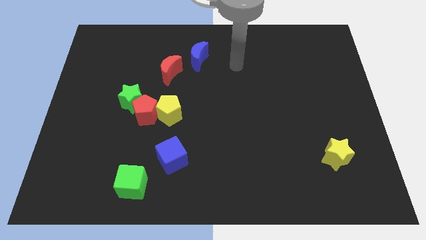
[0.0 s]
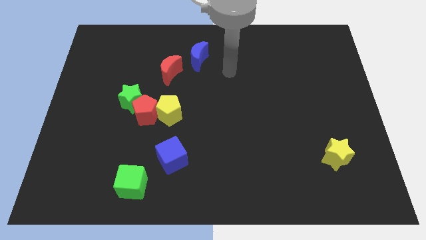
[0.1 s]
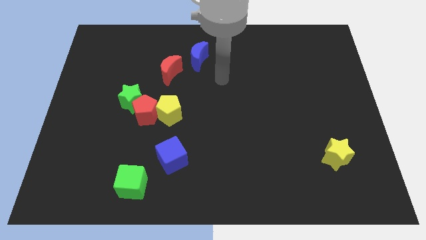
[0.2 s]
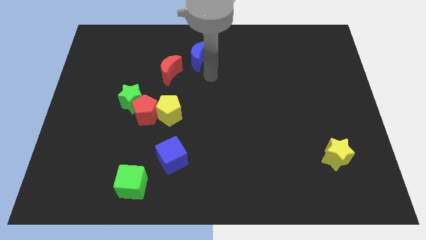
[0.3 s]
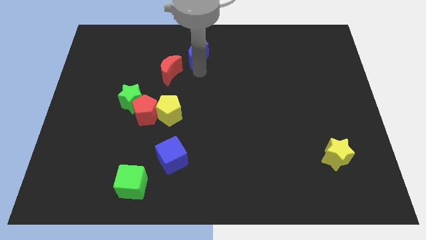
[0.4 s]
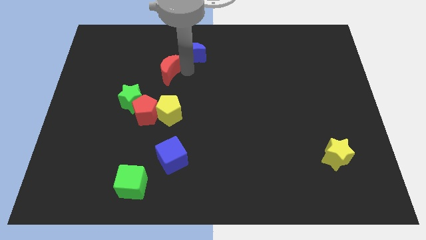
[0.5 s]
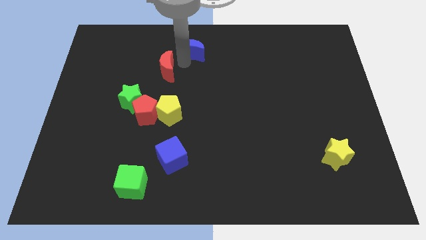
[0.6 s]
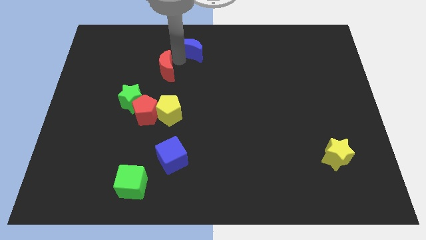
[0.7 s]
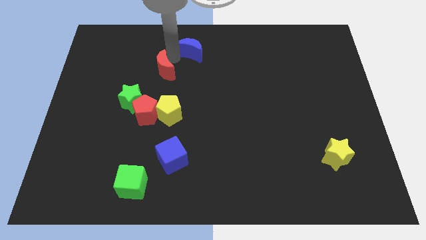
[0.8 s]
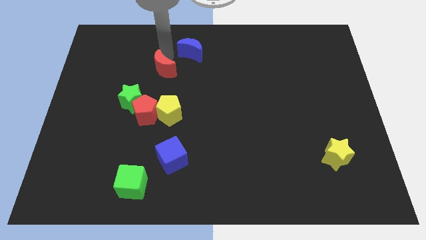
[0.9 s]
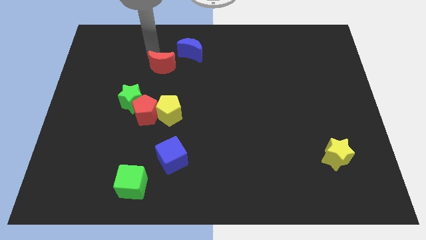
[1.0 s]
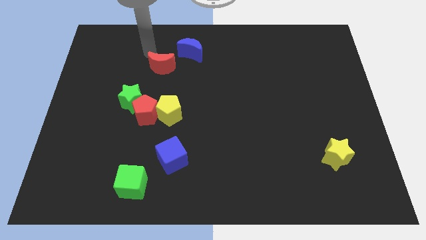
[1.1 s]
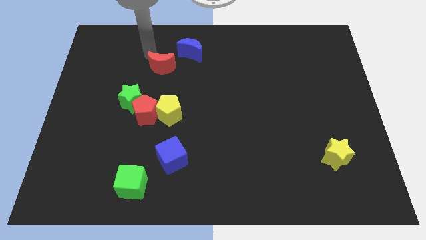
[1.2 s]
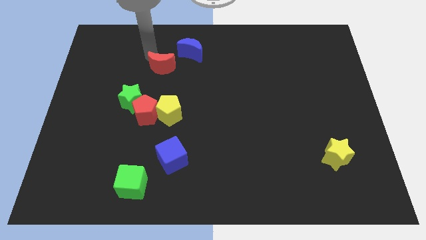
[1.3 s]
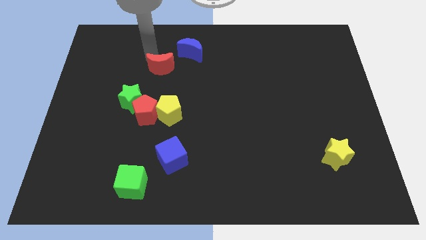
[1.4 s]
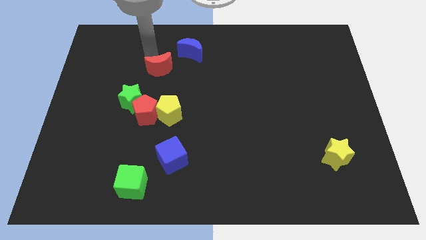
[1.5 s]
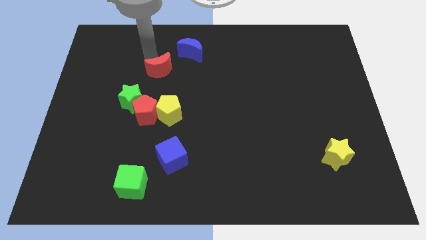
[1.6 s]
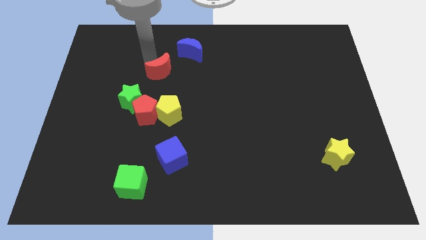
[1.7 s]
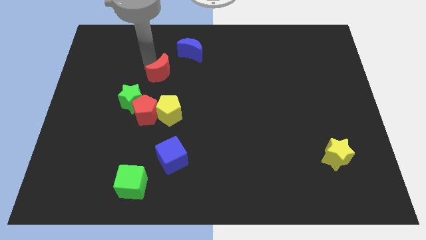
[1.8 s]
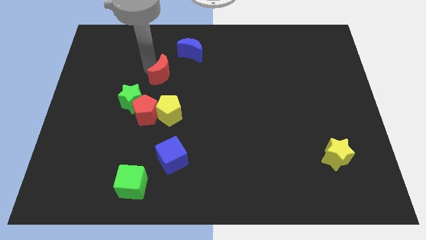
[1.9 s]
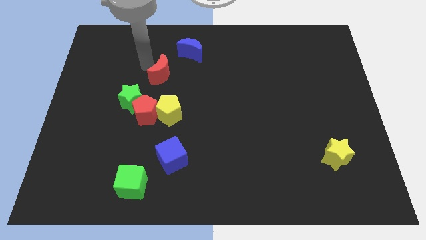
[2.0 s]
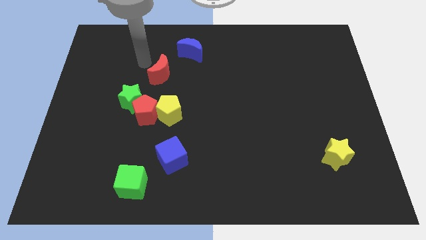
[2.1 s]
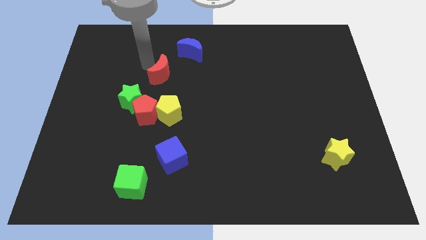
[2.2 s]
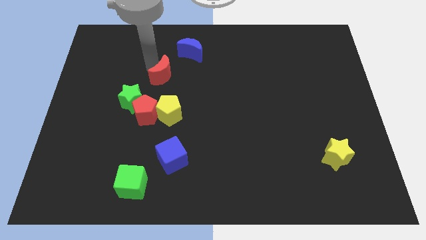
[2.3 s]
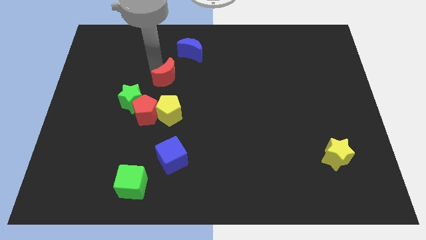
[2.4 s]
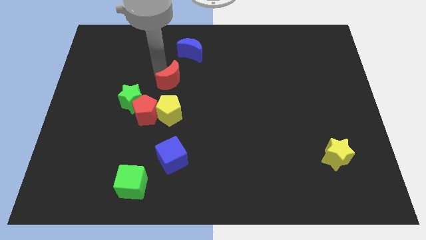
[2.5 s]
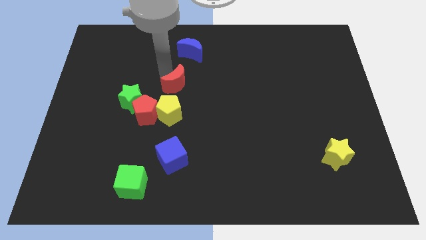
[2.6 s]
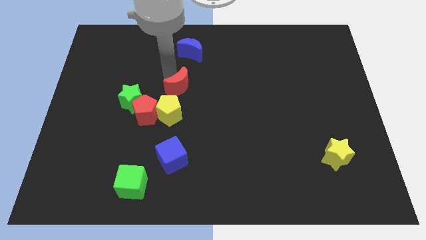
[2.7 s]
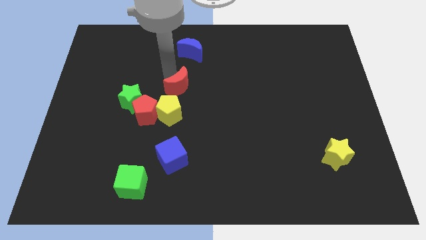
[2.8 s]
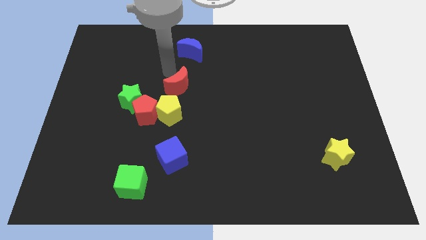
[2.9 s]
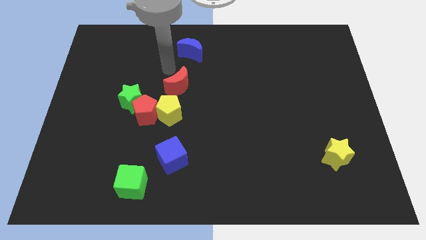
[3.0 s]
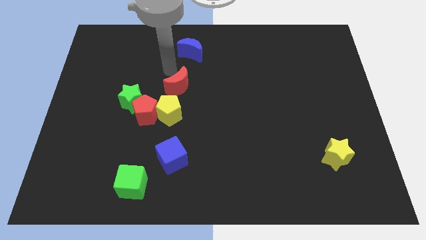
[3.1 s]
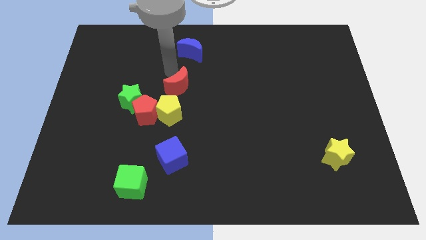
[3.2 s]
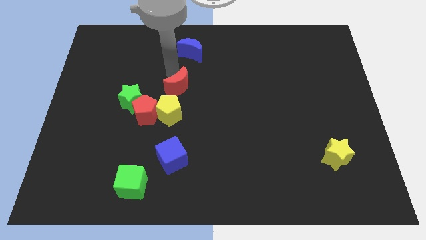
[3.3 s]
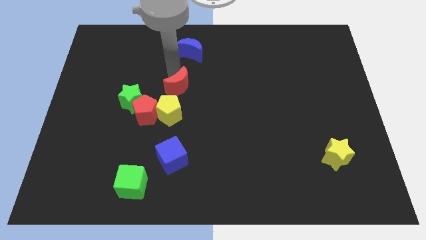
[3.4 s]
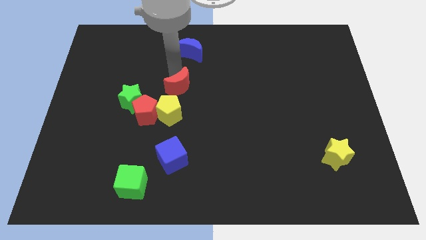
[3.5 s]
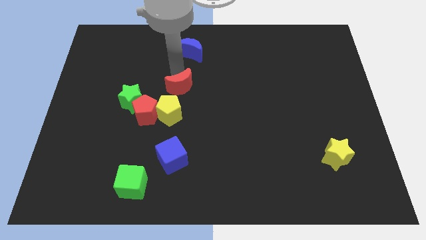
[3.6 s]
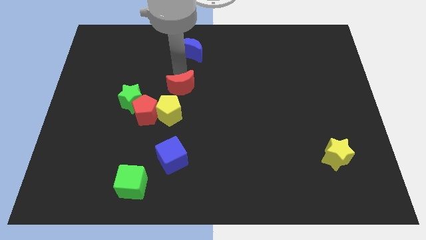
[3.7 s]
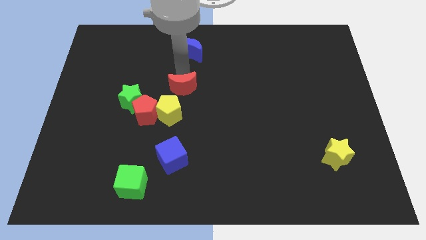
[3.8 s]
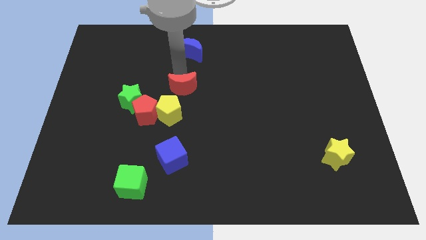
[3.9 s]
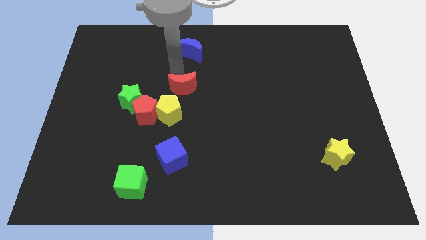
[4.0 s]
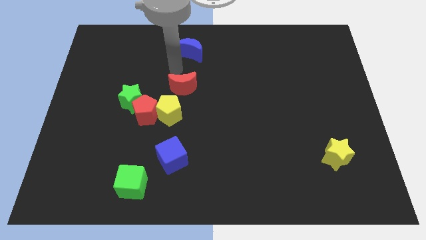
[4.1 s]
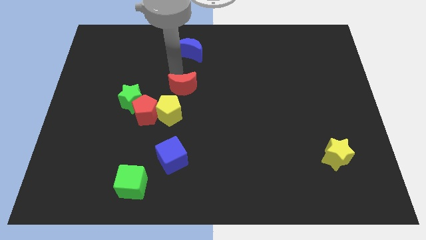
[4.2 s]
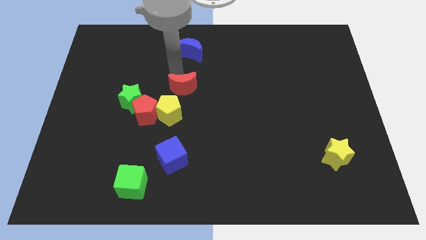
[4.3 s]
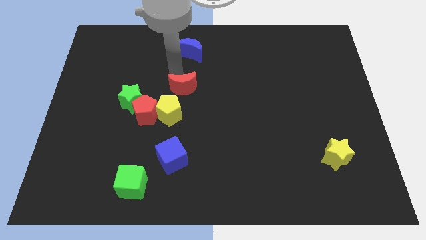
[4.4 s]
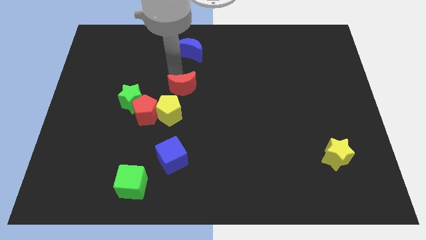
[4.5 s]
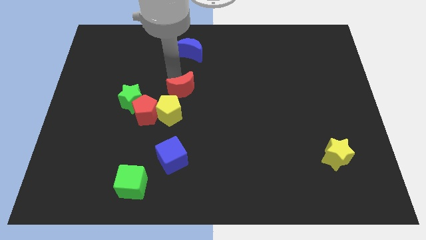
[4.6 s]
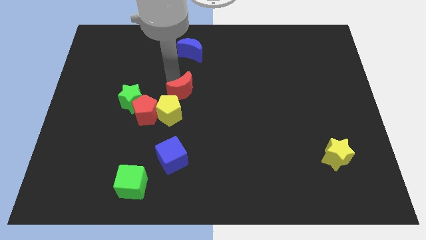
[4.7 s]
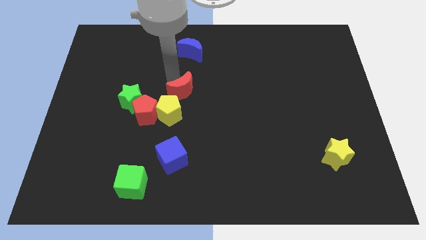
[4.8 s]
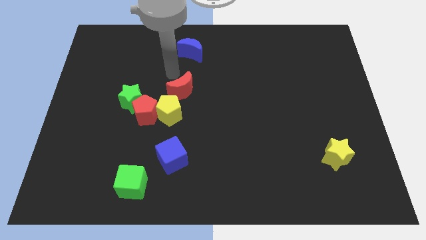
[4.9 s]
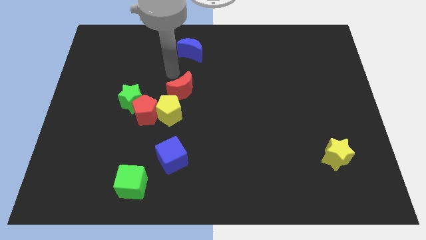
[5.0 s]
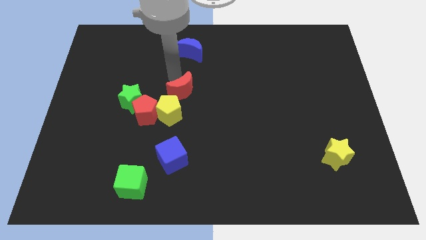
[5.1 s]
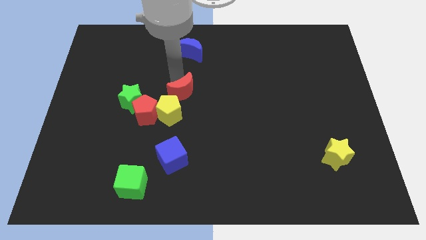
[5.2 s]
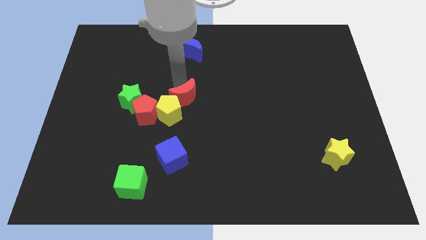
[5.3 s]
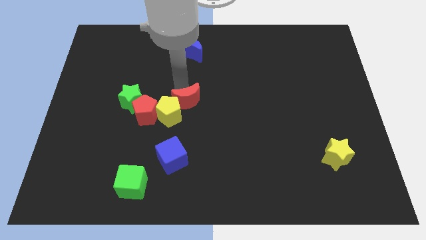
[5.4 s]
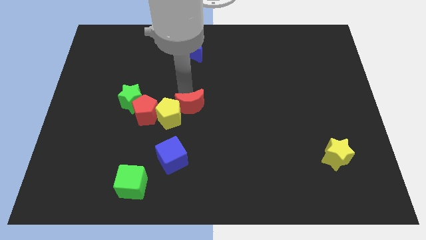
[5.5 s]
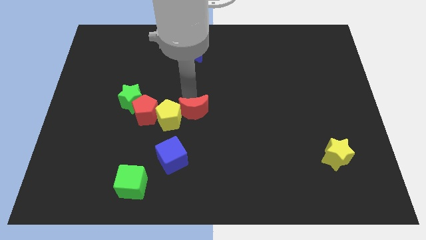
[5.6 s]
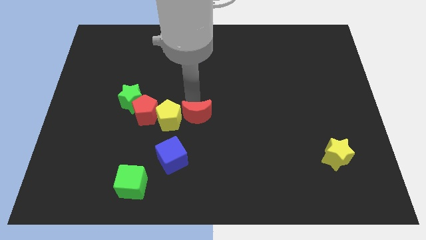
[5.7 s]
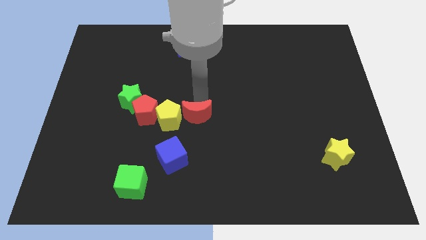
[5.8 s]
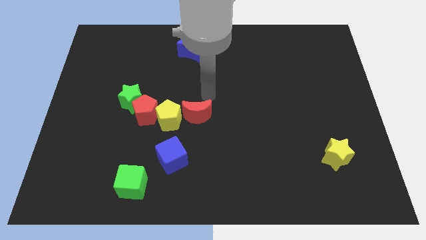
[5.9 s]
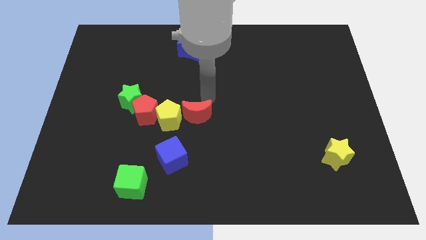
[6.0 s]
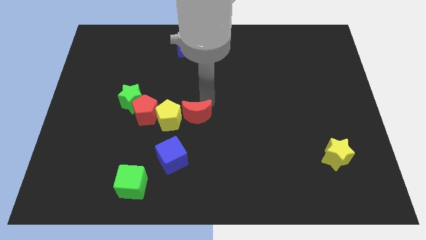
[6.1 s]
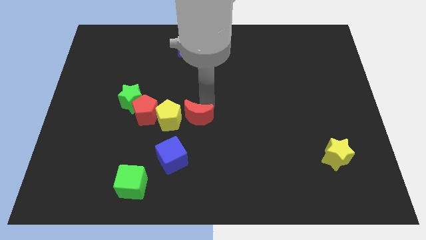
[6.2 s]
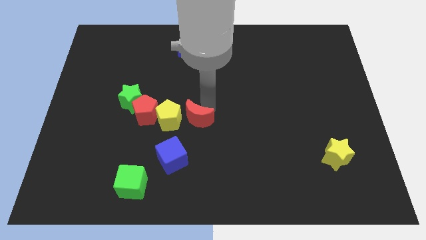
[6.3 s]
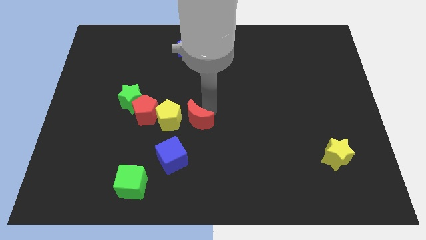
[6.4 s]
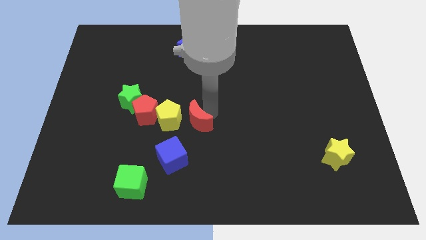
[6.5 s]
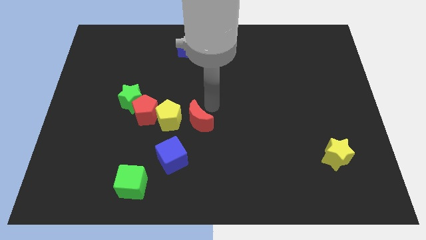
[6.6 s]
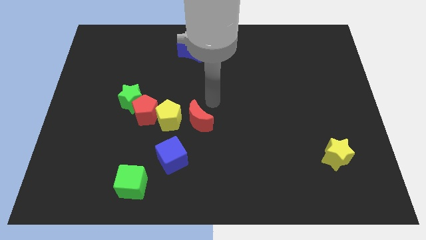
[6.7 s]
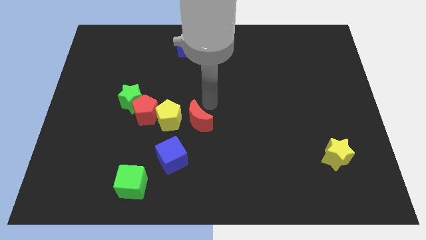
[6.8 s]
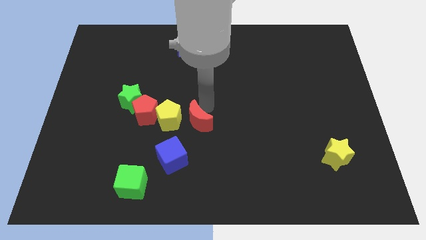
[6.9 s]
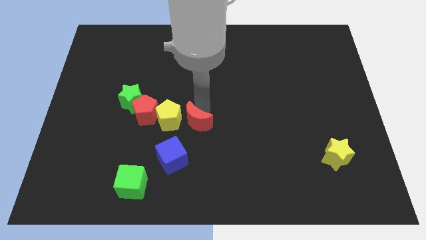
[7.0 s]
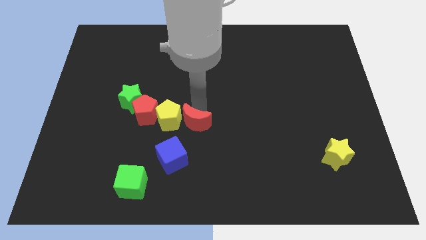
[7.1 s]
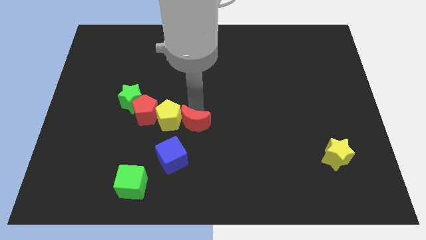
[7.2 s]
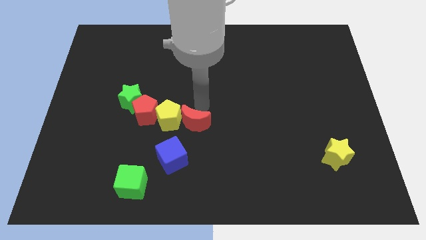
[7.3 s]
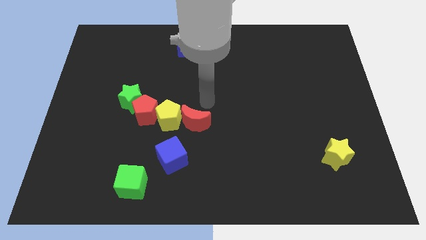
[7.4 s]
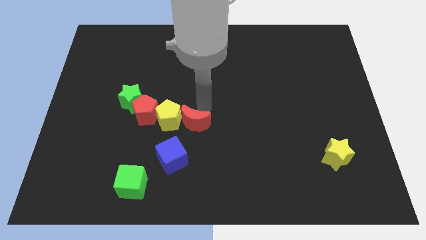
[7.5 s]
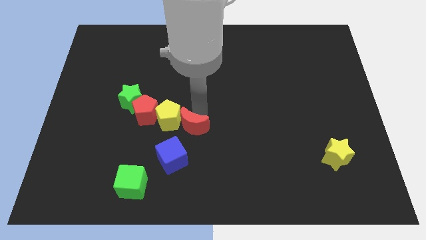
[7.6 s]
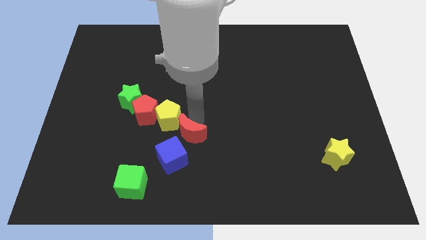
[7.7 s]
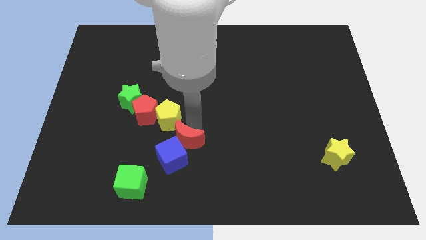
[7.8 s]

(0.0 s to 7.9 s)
put the red moon towards the blue cube
